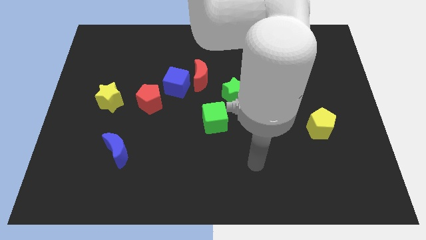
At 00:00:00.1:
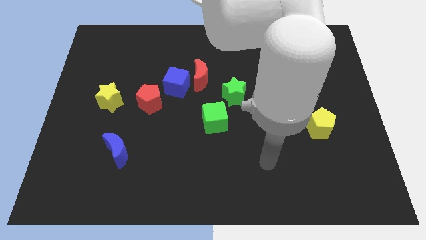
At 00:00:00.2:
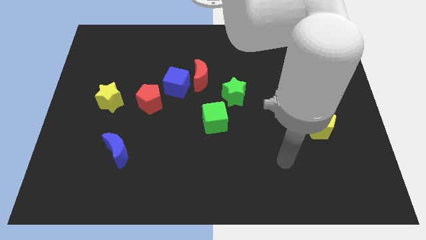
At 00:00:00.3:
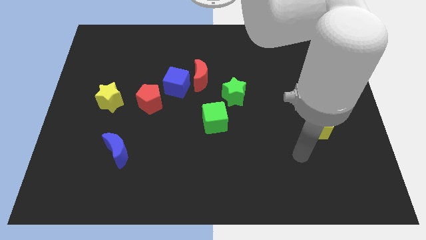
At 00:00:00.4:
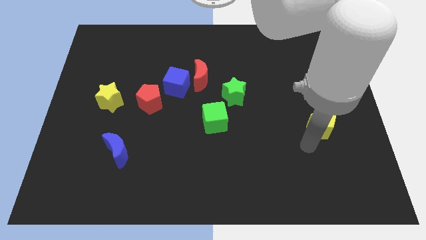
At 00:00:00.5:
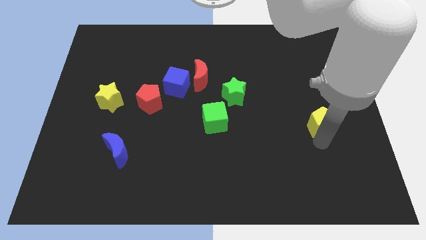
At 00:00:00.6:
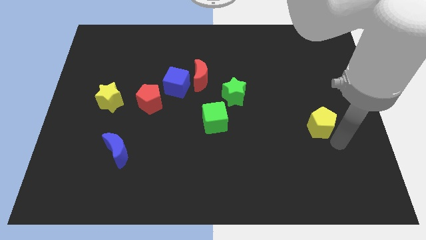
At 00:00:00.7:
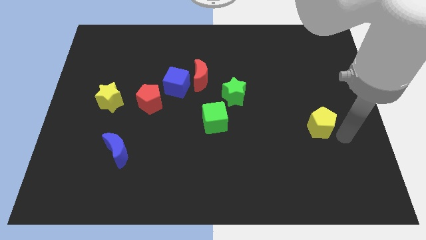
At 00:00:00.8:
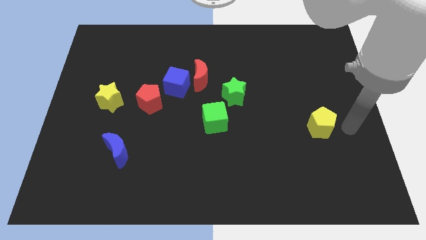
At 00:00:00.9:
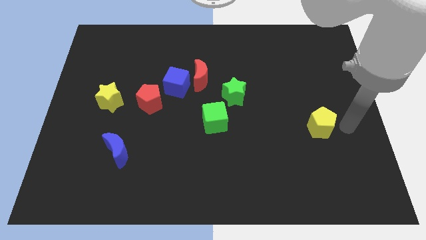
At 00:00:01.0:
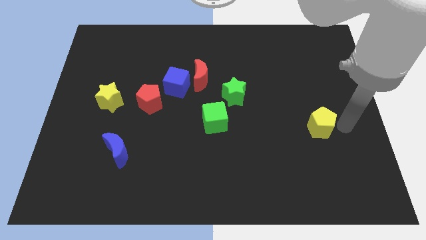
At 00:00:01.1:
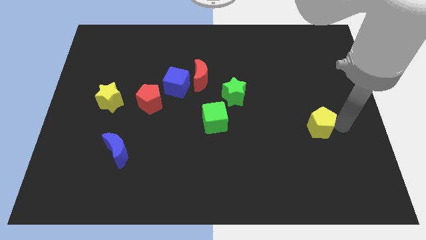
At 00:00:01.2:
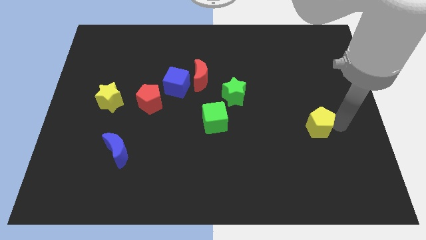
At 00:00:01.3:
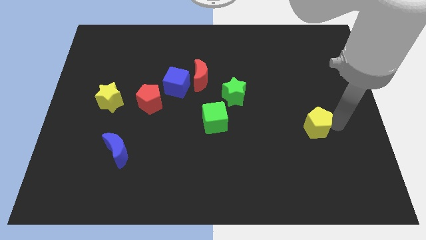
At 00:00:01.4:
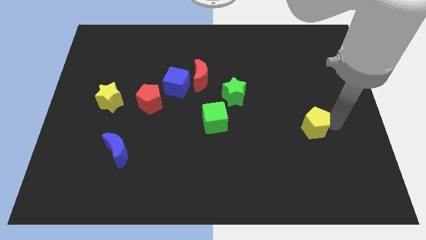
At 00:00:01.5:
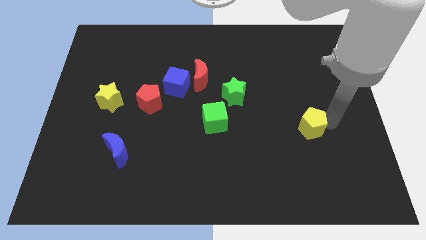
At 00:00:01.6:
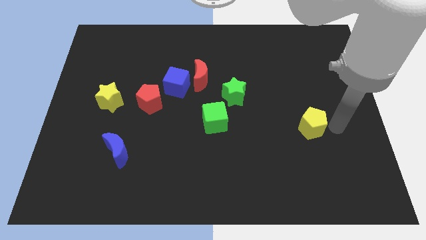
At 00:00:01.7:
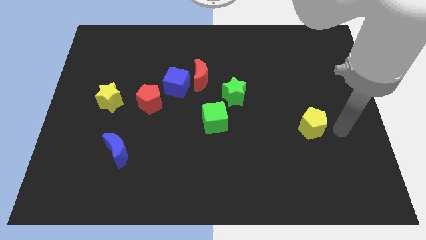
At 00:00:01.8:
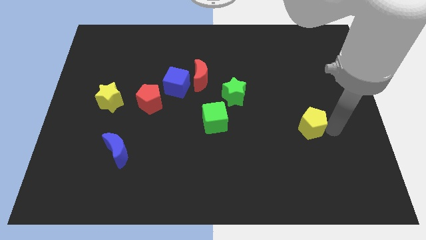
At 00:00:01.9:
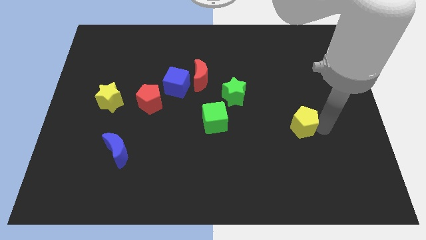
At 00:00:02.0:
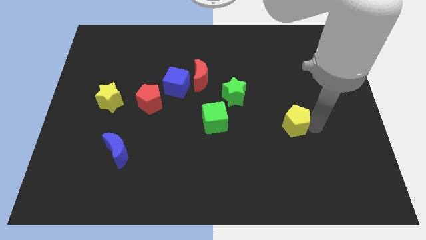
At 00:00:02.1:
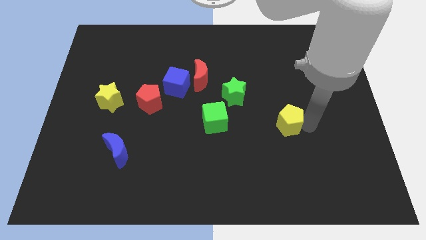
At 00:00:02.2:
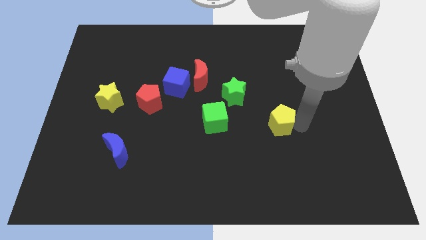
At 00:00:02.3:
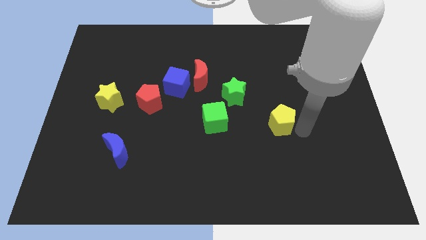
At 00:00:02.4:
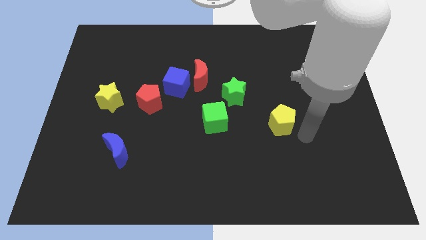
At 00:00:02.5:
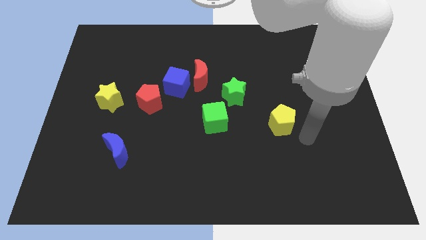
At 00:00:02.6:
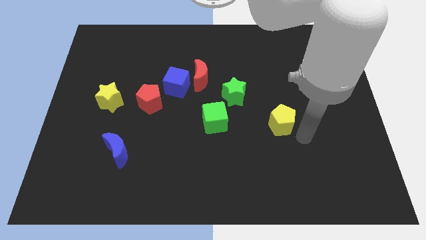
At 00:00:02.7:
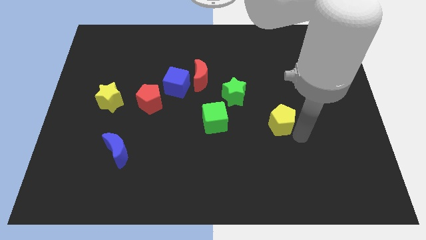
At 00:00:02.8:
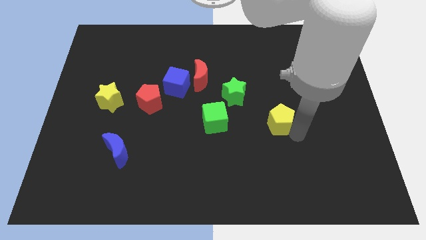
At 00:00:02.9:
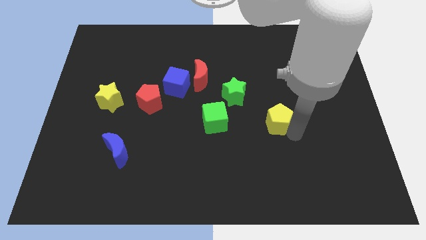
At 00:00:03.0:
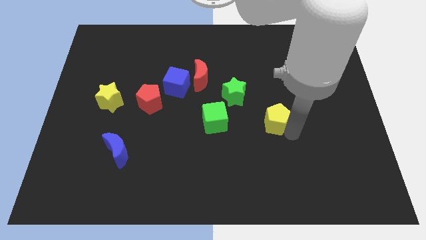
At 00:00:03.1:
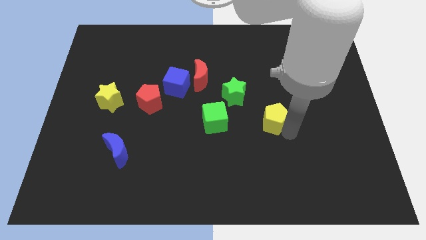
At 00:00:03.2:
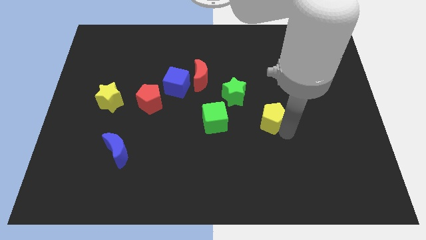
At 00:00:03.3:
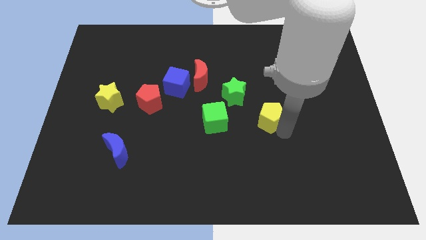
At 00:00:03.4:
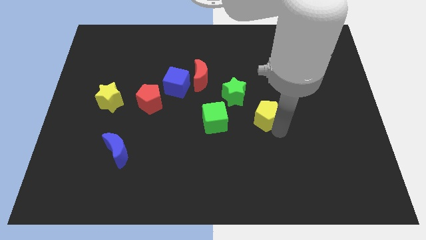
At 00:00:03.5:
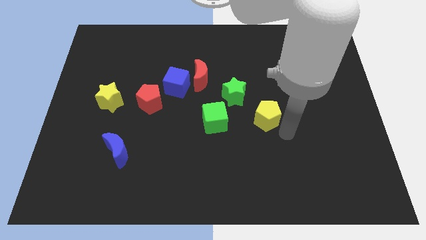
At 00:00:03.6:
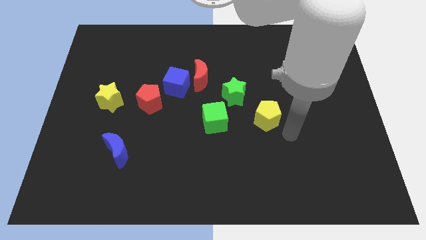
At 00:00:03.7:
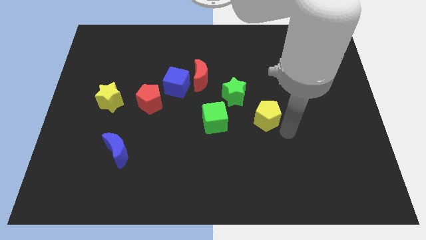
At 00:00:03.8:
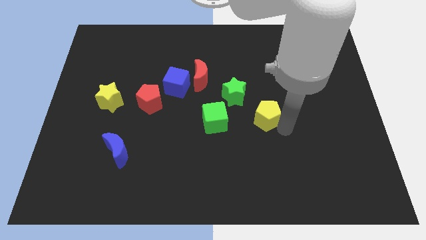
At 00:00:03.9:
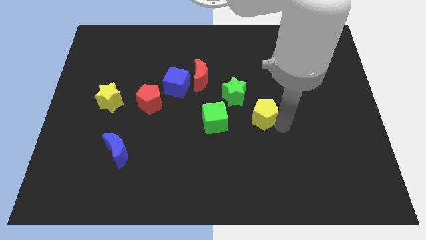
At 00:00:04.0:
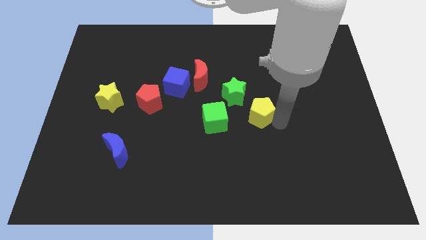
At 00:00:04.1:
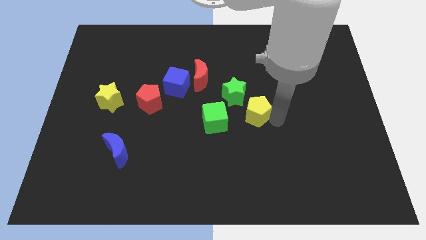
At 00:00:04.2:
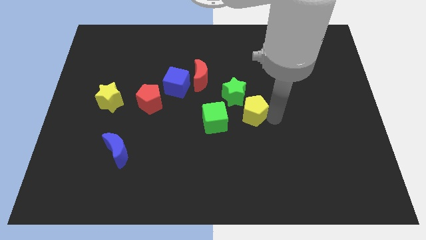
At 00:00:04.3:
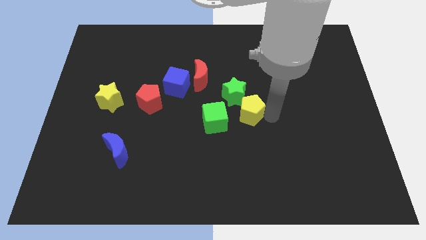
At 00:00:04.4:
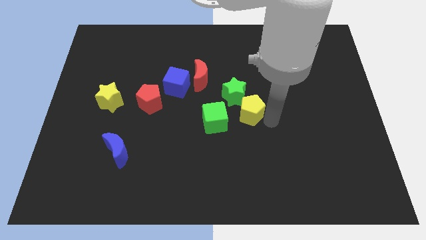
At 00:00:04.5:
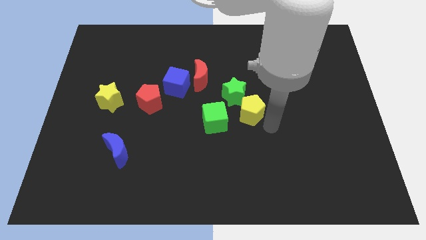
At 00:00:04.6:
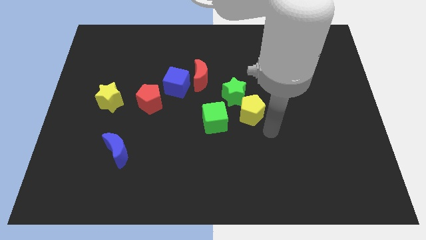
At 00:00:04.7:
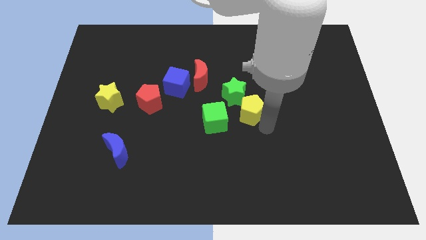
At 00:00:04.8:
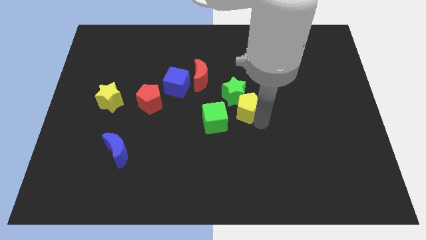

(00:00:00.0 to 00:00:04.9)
slide the yellow pentagon to the green star

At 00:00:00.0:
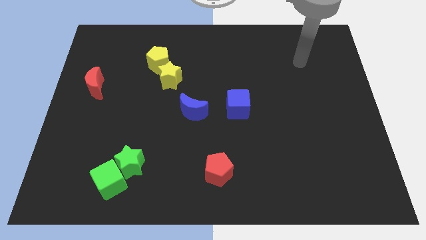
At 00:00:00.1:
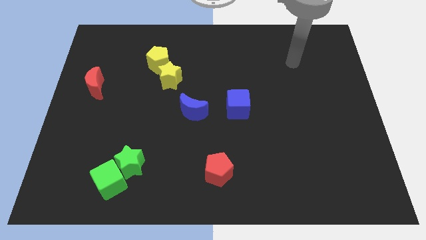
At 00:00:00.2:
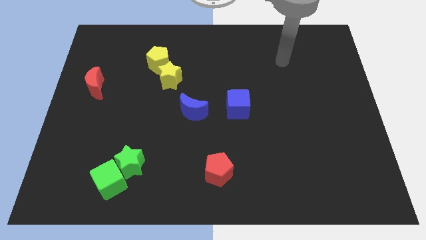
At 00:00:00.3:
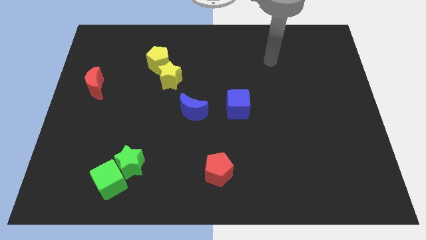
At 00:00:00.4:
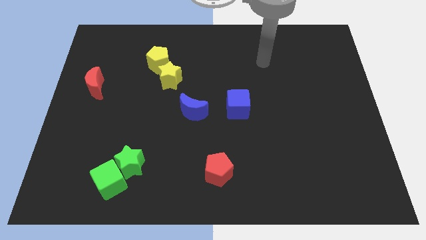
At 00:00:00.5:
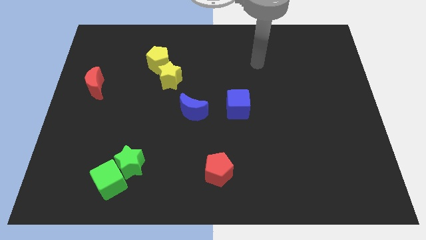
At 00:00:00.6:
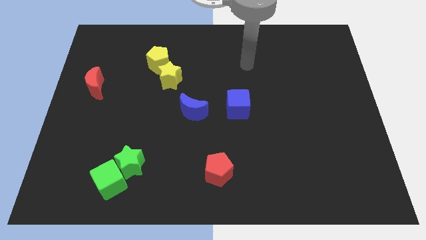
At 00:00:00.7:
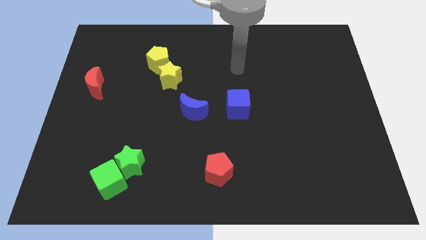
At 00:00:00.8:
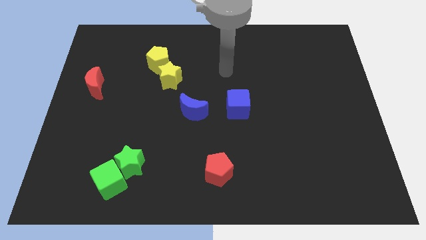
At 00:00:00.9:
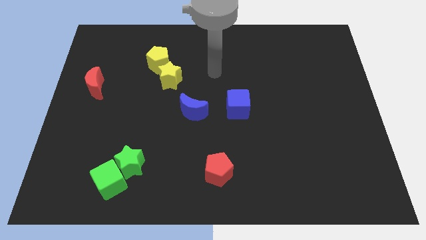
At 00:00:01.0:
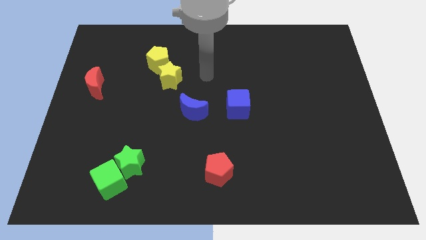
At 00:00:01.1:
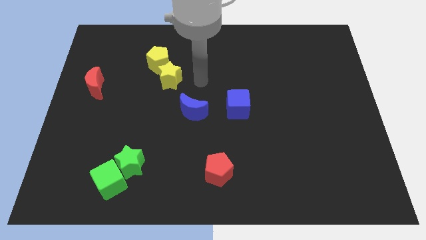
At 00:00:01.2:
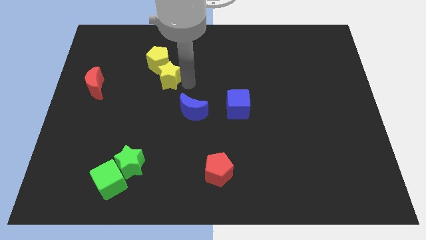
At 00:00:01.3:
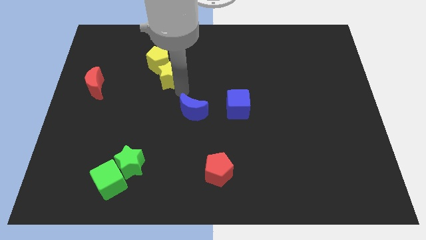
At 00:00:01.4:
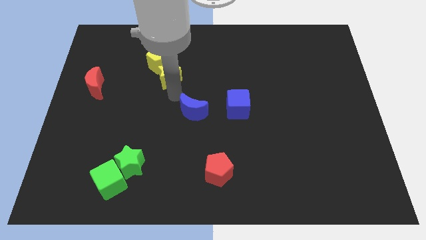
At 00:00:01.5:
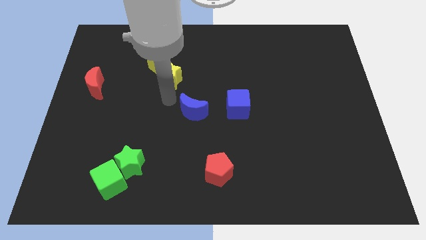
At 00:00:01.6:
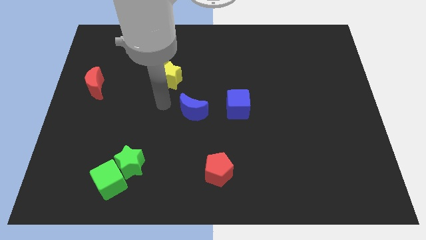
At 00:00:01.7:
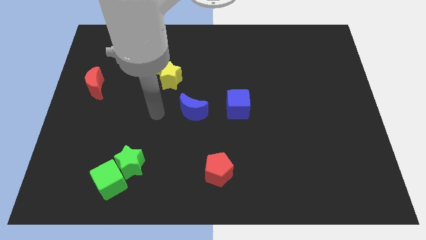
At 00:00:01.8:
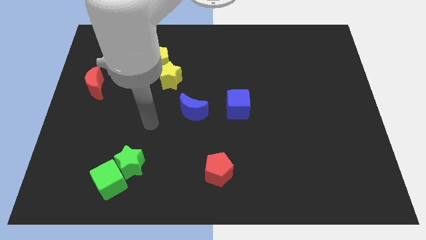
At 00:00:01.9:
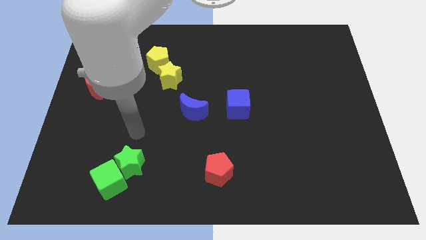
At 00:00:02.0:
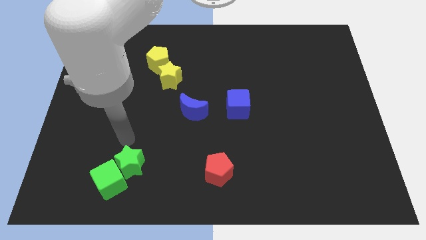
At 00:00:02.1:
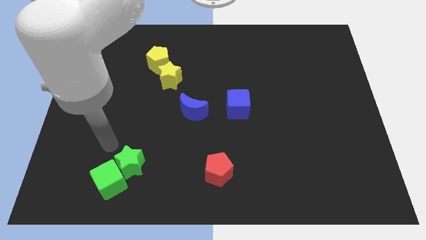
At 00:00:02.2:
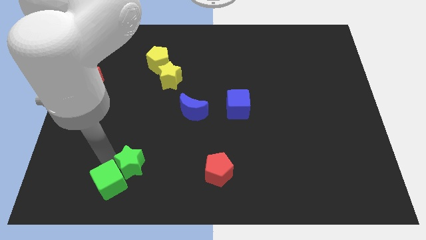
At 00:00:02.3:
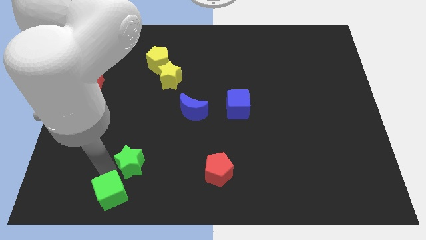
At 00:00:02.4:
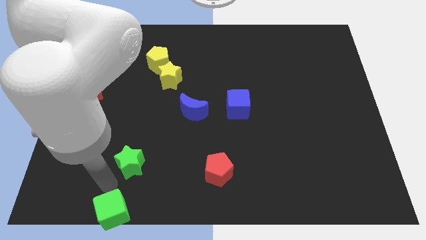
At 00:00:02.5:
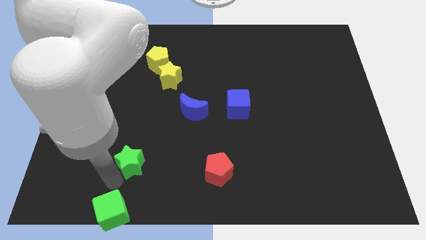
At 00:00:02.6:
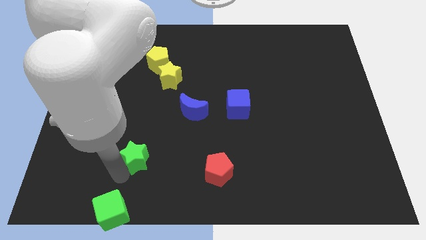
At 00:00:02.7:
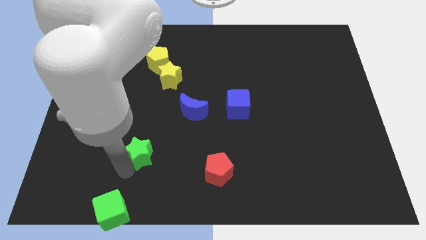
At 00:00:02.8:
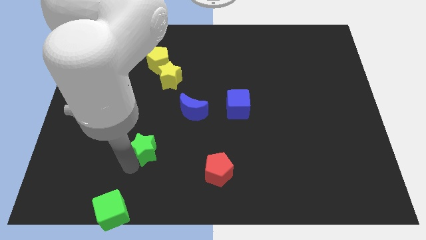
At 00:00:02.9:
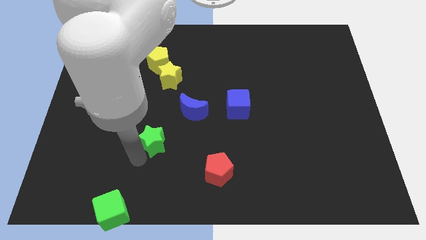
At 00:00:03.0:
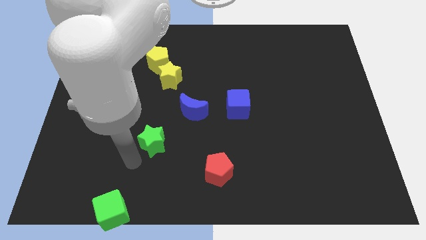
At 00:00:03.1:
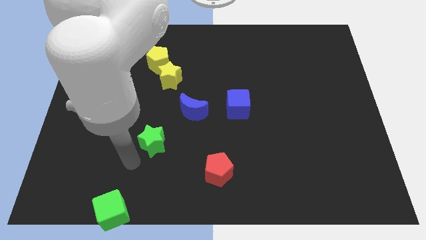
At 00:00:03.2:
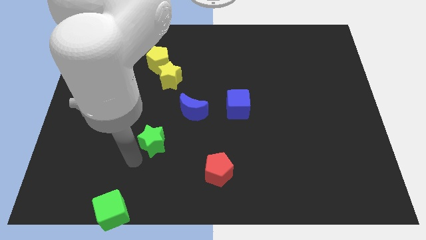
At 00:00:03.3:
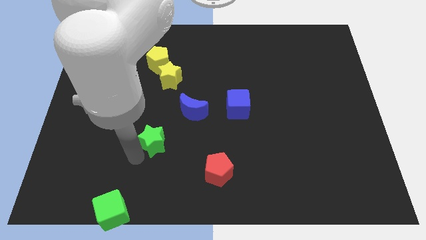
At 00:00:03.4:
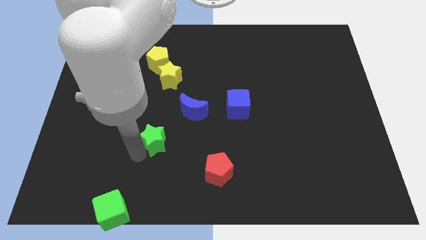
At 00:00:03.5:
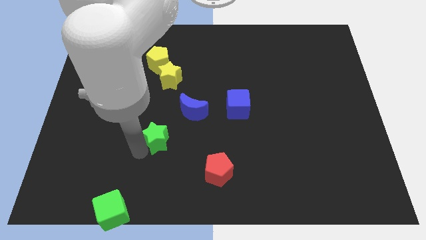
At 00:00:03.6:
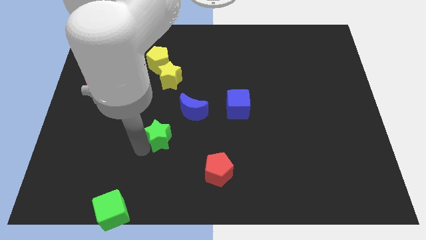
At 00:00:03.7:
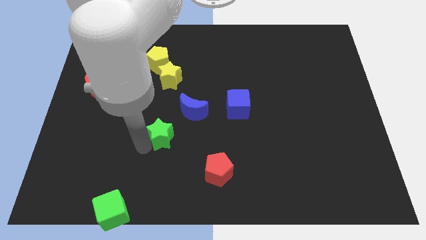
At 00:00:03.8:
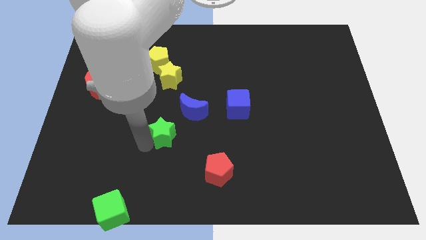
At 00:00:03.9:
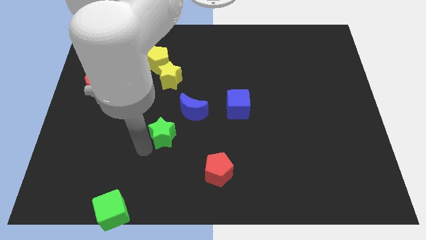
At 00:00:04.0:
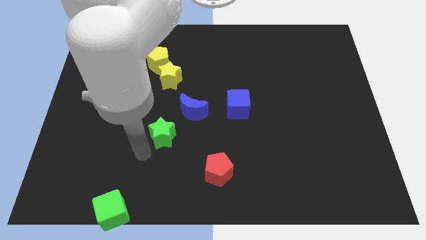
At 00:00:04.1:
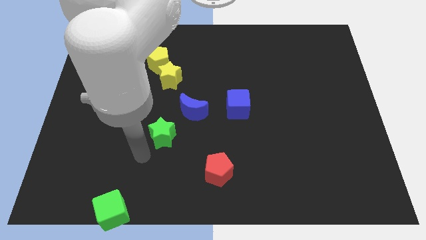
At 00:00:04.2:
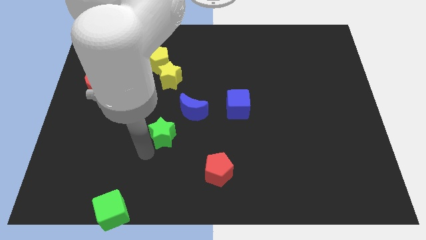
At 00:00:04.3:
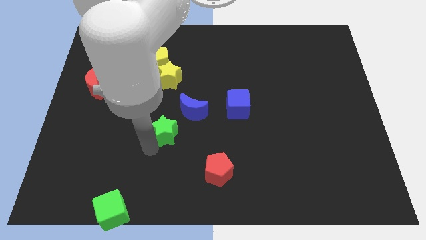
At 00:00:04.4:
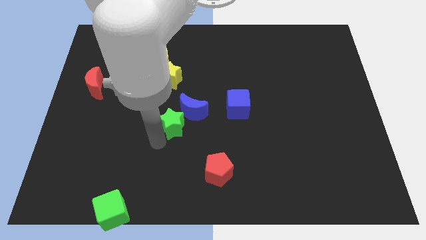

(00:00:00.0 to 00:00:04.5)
put the green star to the blue moon
